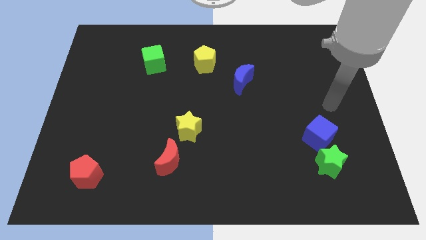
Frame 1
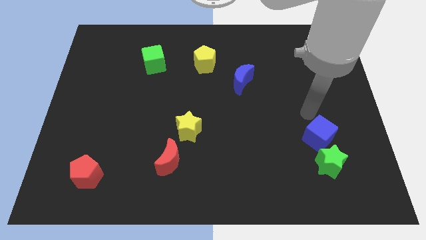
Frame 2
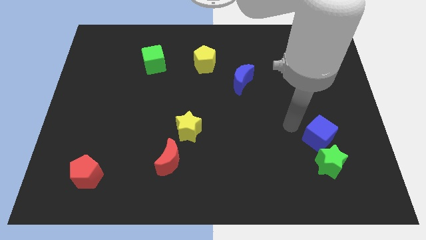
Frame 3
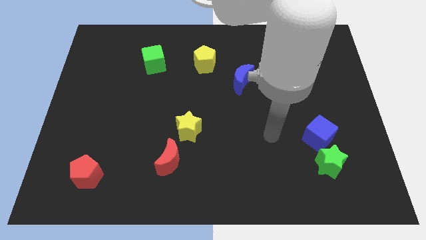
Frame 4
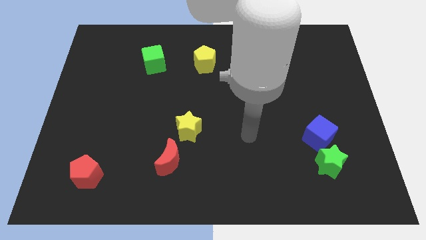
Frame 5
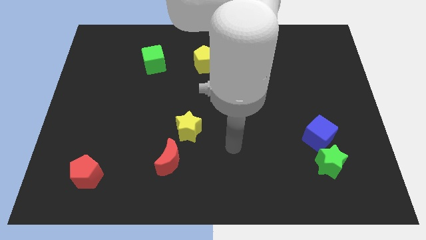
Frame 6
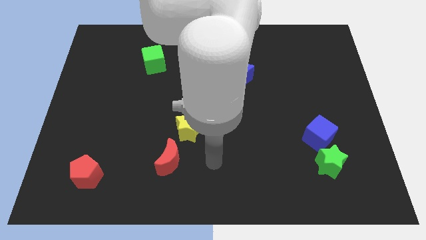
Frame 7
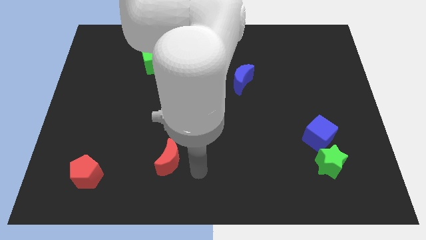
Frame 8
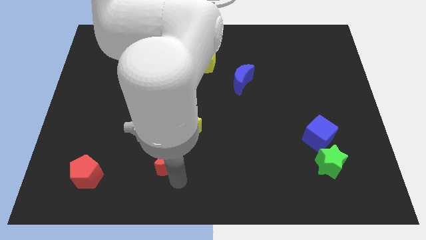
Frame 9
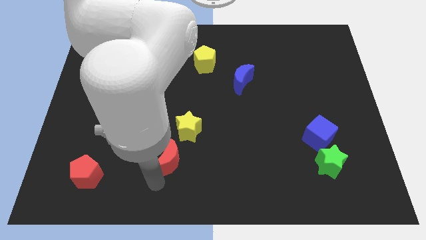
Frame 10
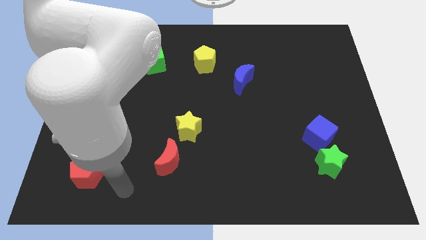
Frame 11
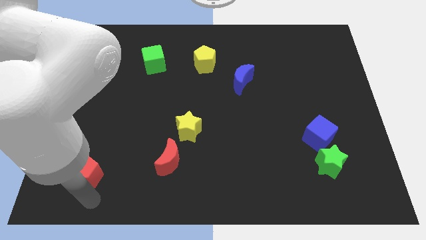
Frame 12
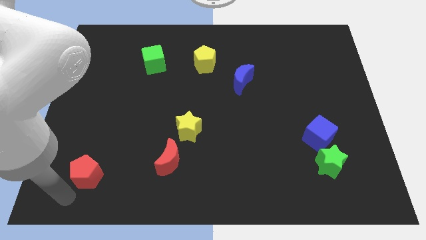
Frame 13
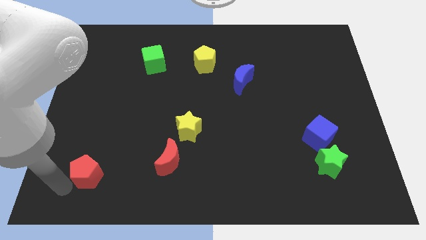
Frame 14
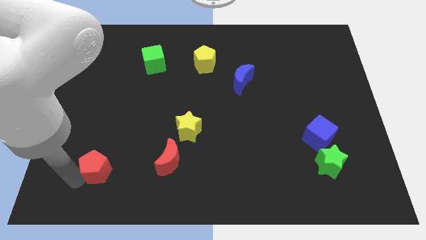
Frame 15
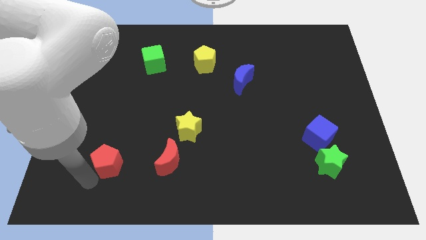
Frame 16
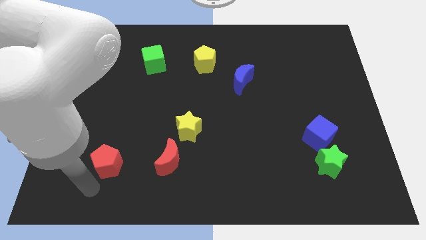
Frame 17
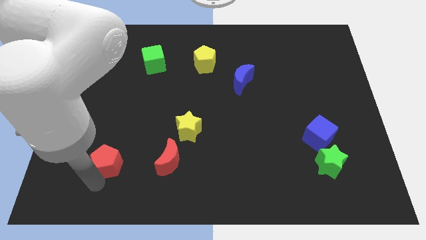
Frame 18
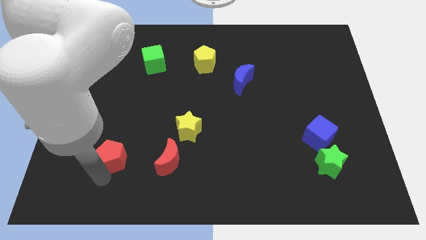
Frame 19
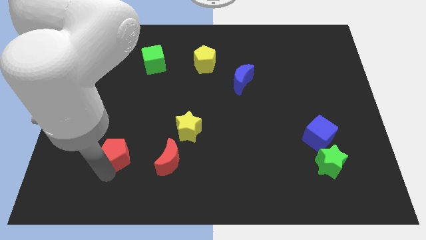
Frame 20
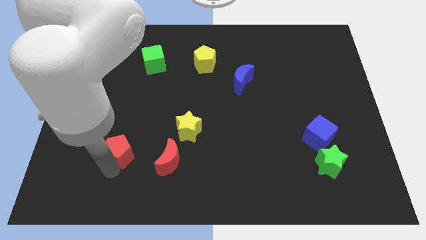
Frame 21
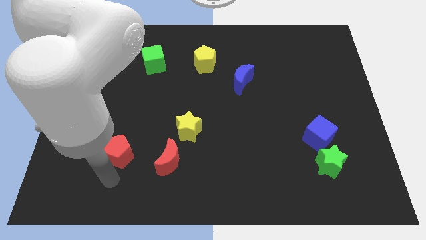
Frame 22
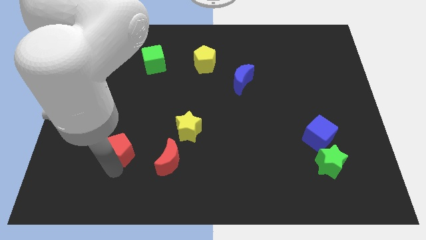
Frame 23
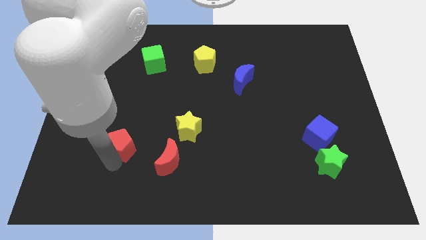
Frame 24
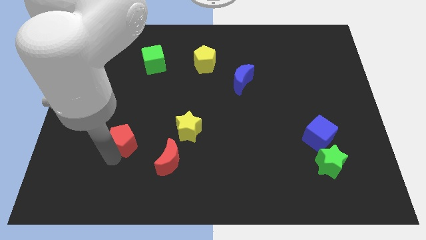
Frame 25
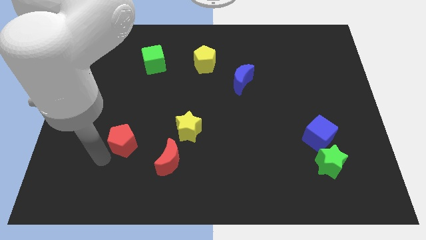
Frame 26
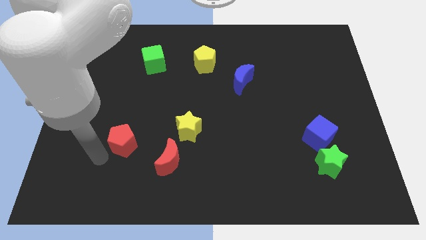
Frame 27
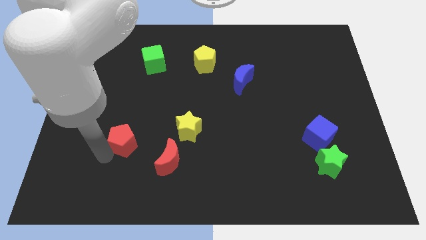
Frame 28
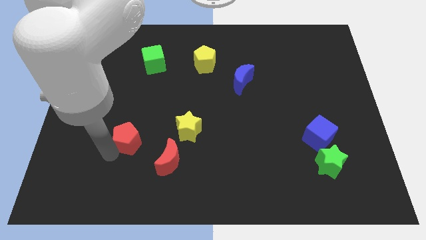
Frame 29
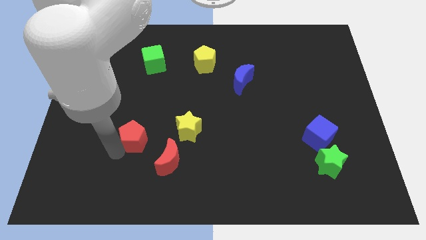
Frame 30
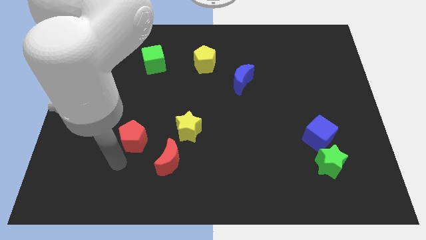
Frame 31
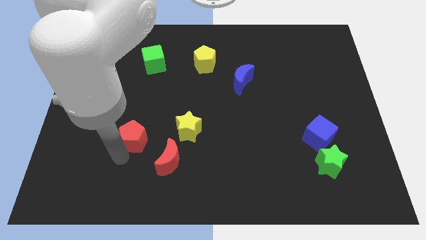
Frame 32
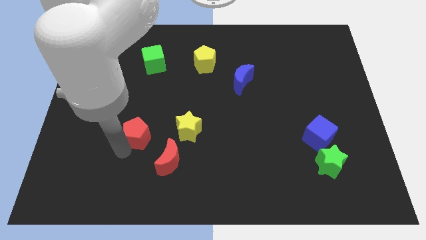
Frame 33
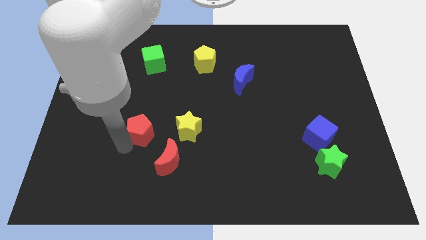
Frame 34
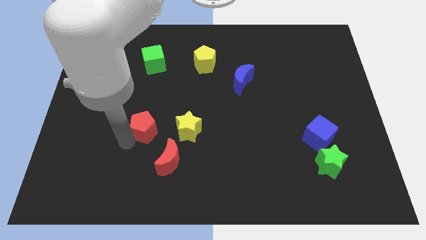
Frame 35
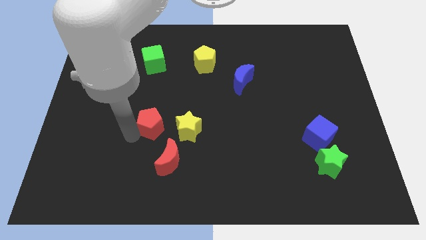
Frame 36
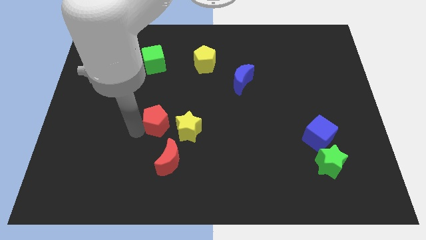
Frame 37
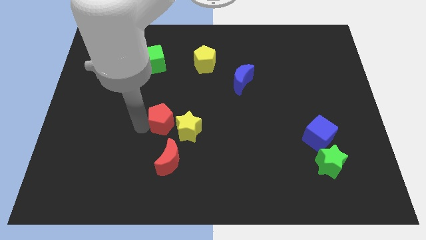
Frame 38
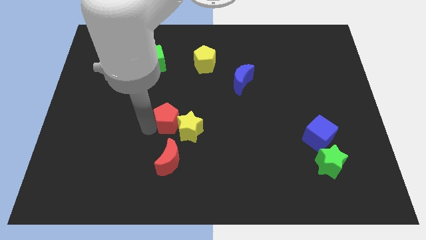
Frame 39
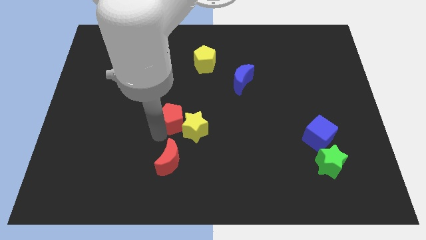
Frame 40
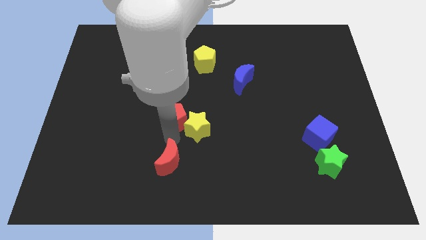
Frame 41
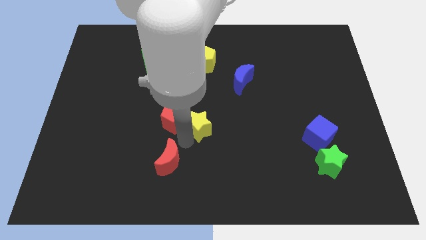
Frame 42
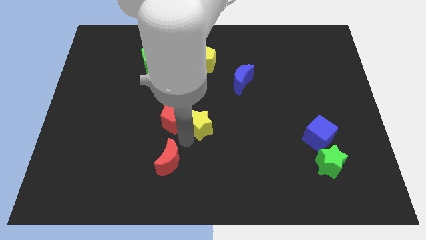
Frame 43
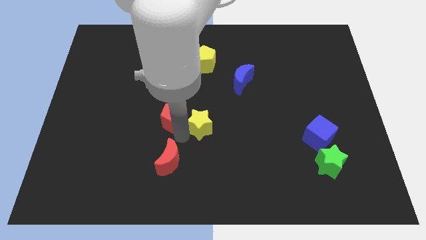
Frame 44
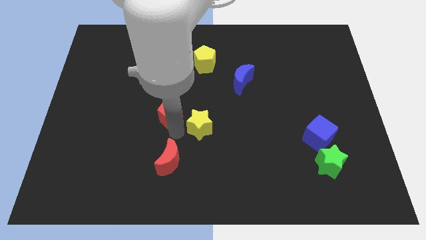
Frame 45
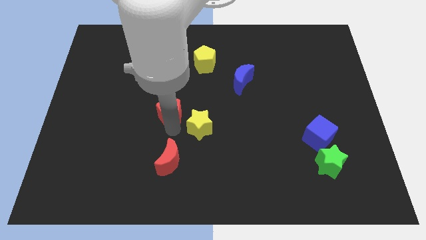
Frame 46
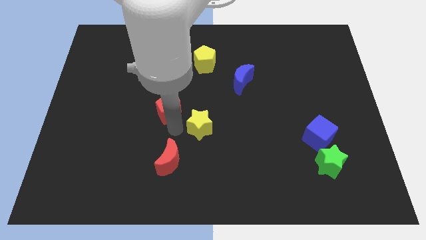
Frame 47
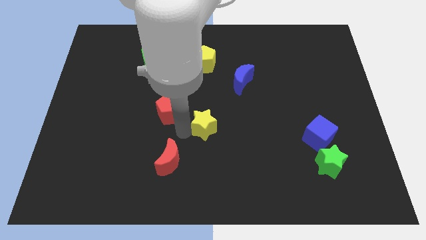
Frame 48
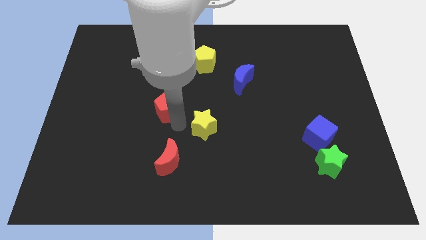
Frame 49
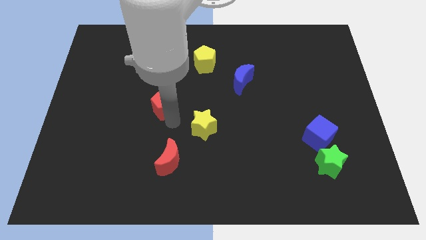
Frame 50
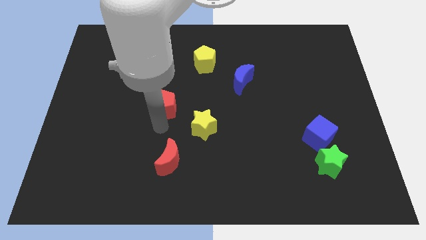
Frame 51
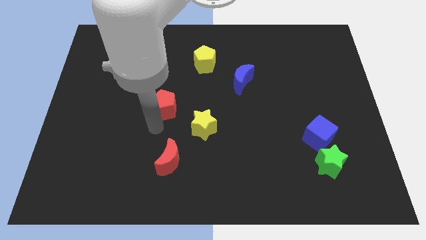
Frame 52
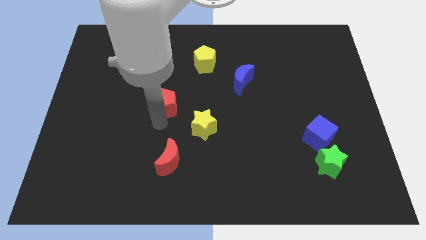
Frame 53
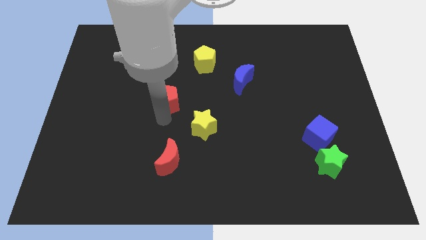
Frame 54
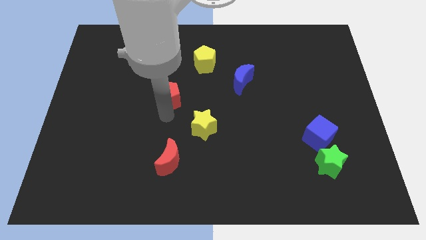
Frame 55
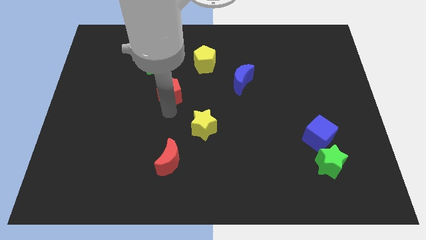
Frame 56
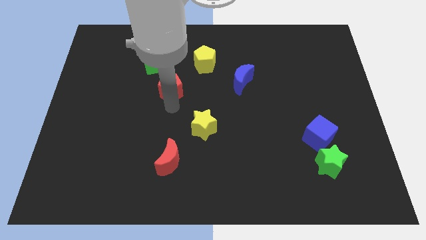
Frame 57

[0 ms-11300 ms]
push the red pentagon to the bottom left side of the yellow pentagon

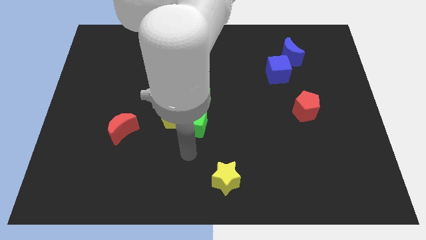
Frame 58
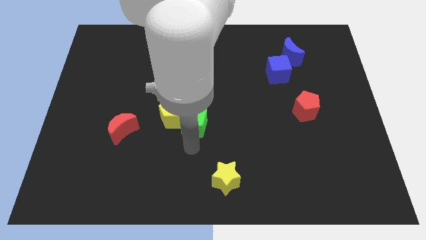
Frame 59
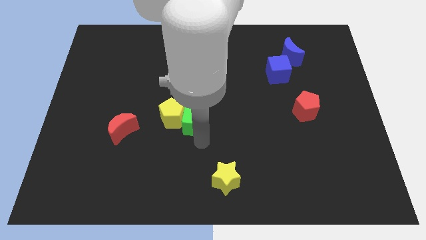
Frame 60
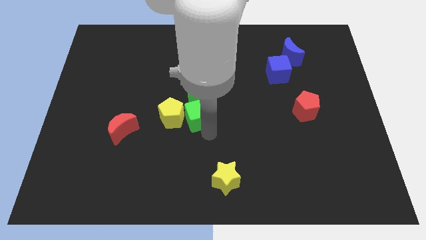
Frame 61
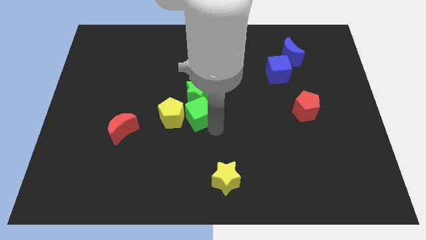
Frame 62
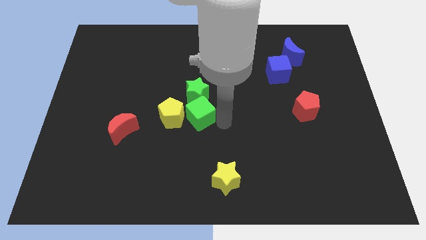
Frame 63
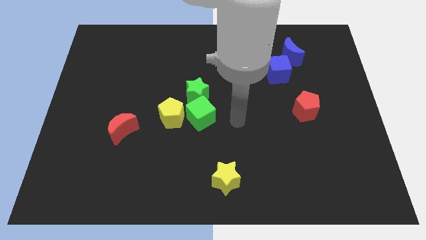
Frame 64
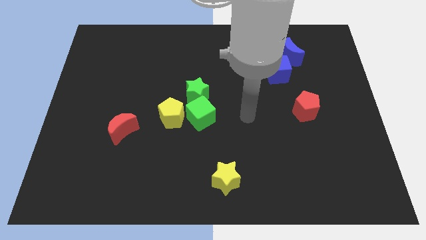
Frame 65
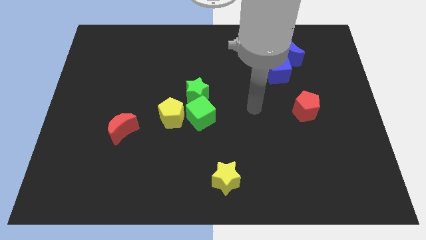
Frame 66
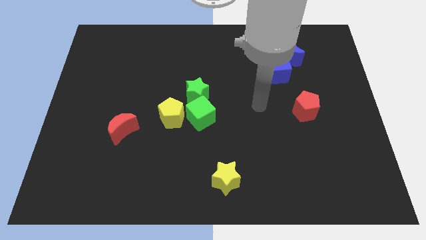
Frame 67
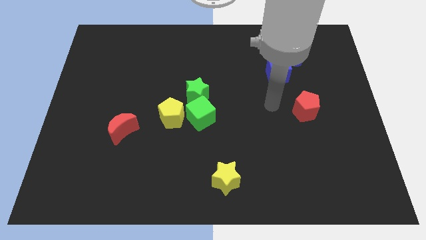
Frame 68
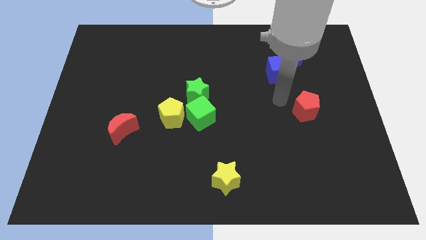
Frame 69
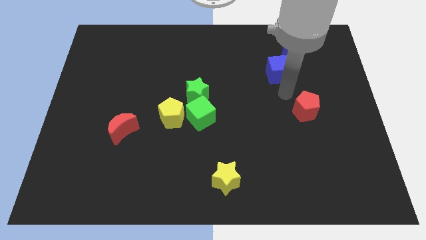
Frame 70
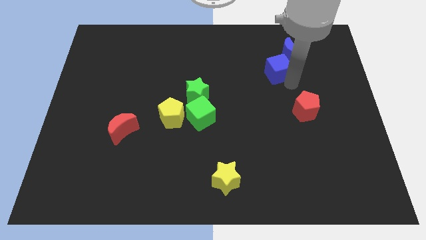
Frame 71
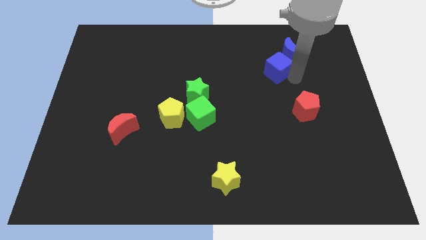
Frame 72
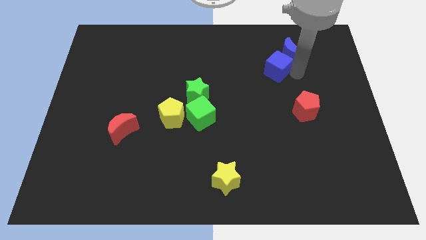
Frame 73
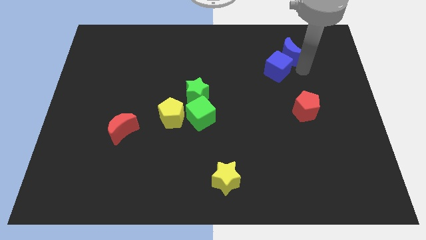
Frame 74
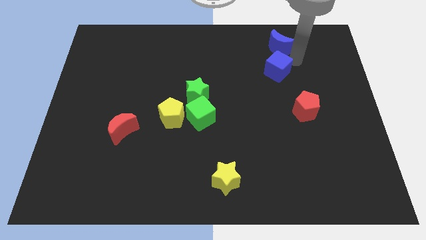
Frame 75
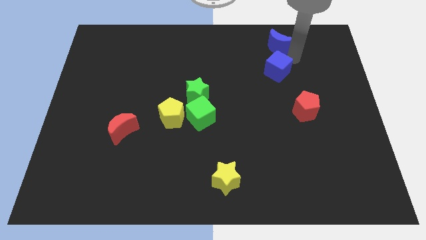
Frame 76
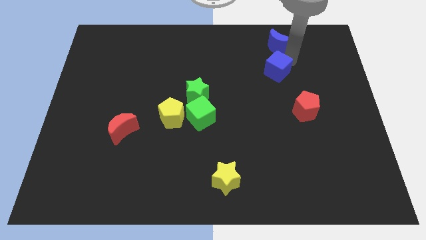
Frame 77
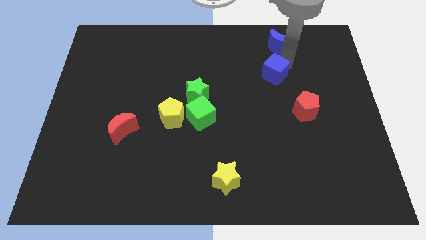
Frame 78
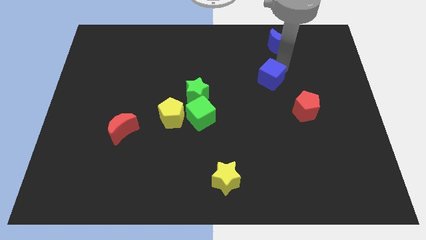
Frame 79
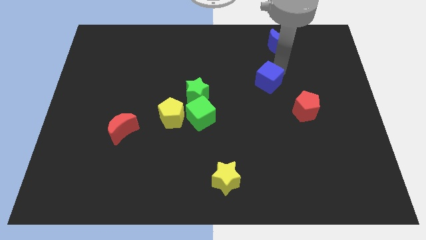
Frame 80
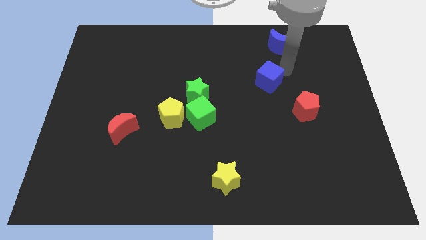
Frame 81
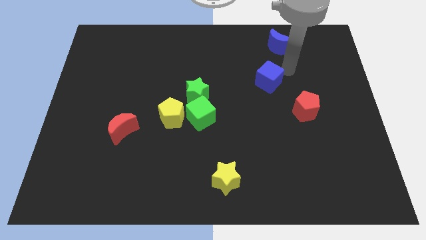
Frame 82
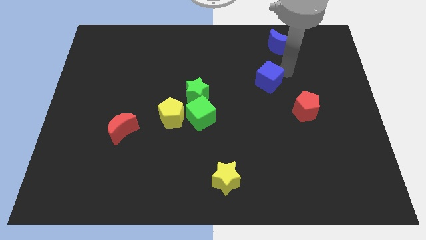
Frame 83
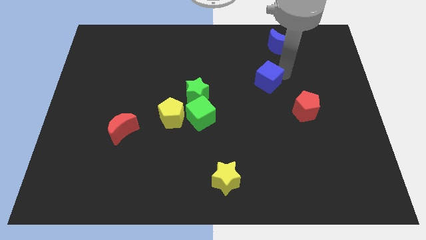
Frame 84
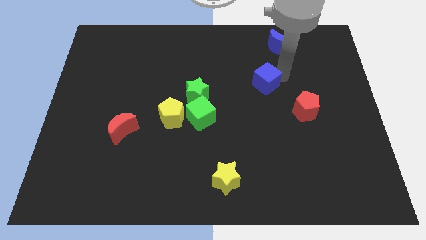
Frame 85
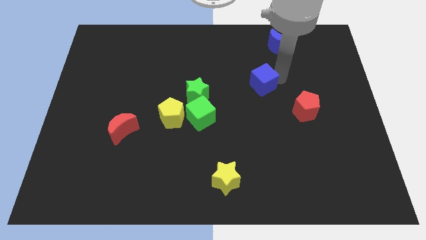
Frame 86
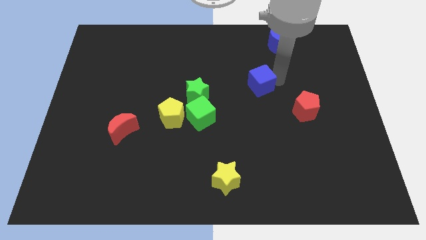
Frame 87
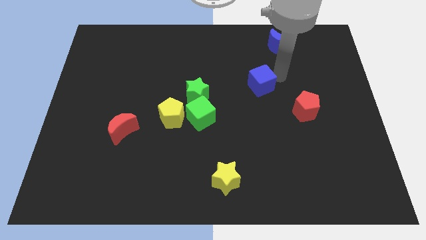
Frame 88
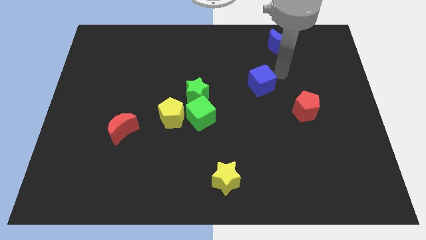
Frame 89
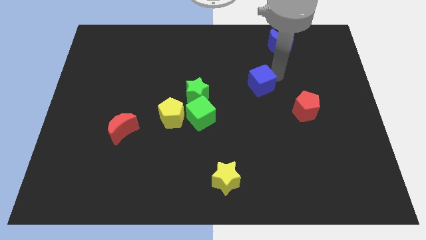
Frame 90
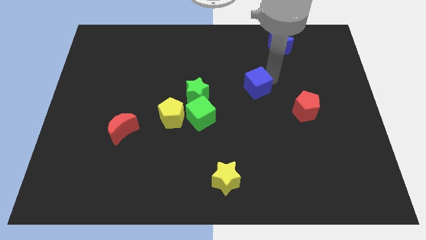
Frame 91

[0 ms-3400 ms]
slide the blue cube just right of the green star
